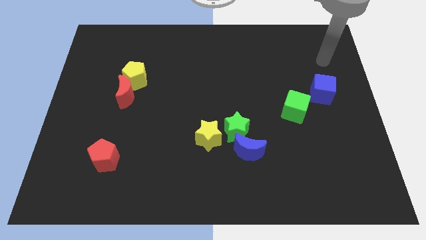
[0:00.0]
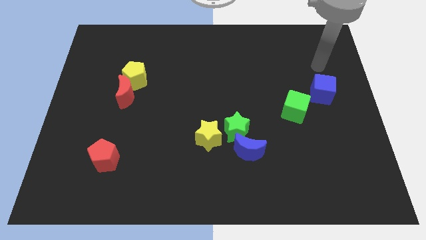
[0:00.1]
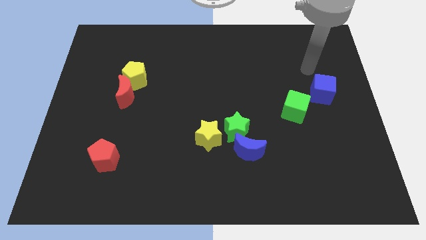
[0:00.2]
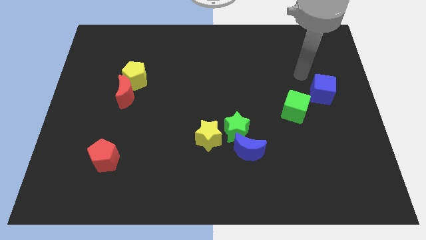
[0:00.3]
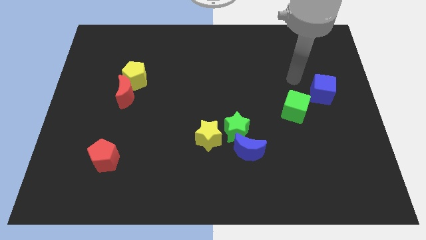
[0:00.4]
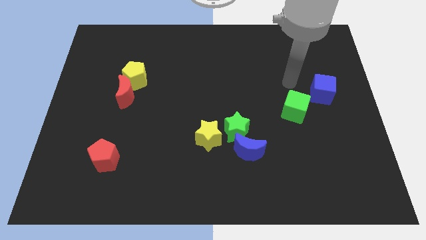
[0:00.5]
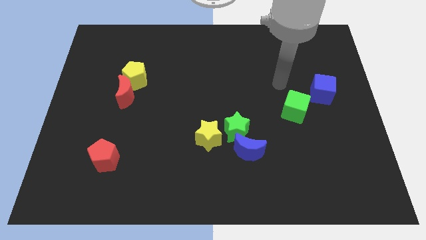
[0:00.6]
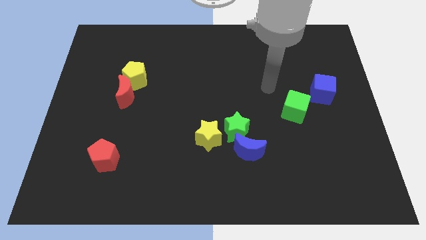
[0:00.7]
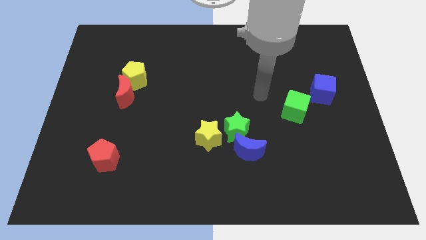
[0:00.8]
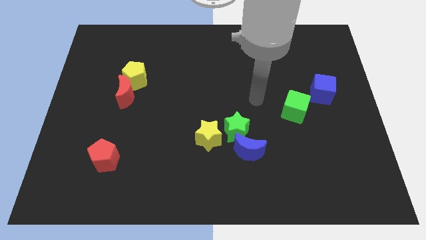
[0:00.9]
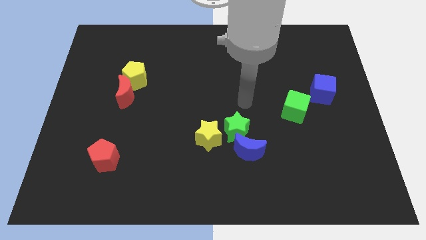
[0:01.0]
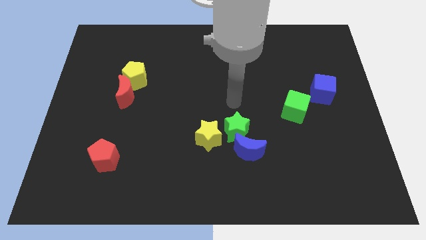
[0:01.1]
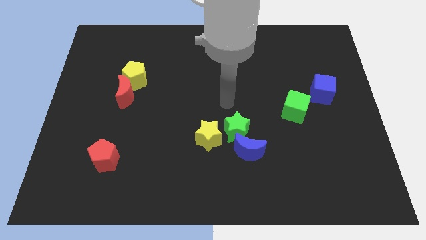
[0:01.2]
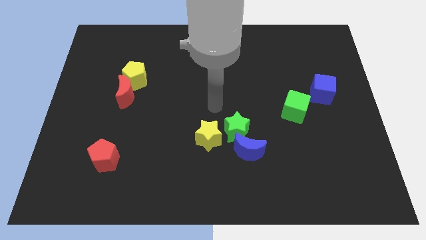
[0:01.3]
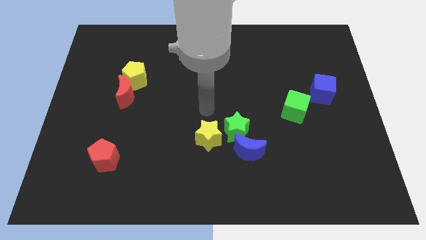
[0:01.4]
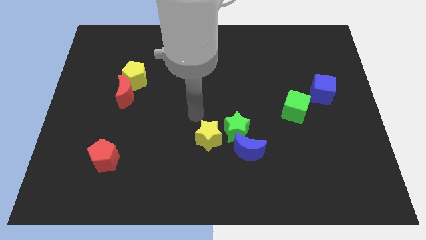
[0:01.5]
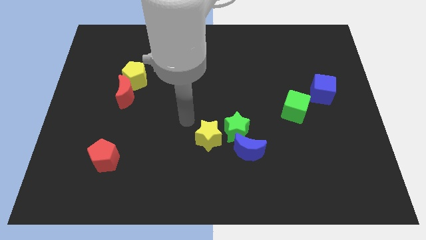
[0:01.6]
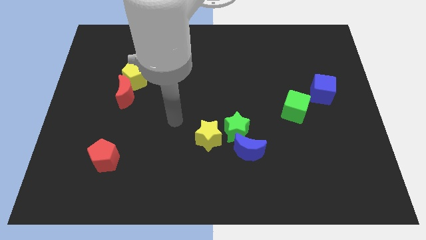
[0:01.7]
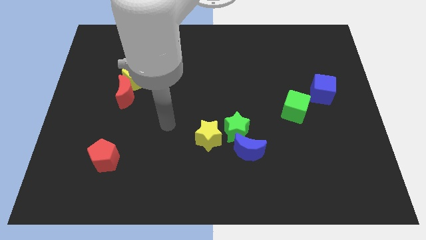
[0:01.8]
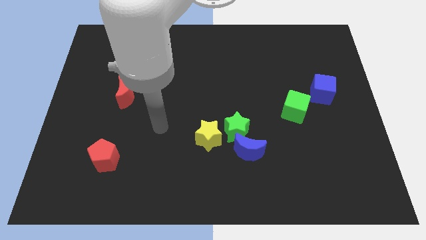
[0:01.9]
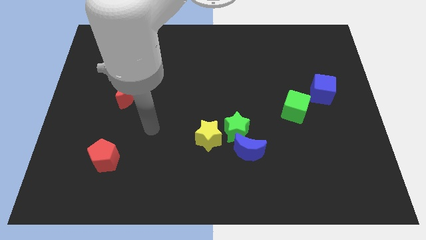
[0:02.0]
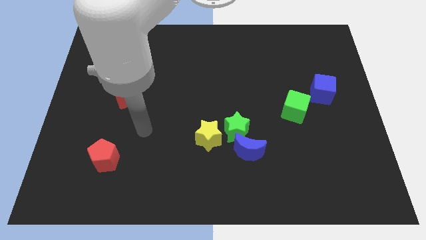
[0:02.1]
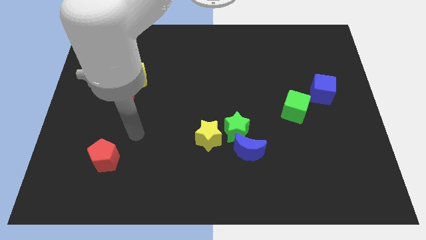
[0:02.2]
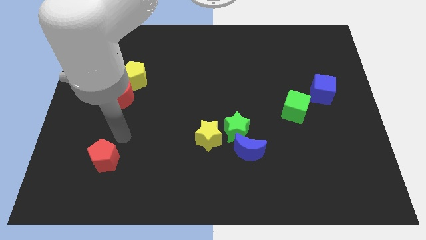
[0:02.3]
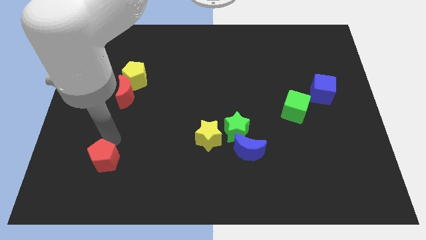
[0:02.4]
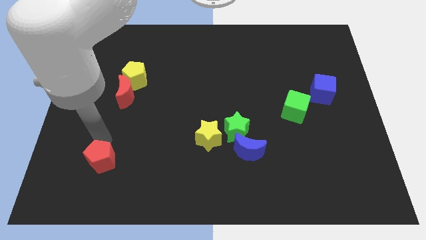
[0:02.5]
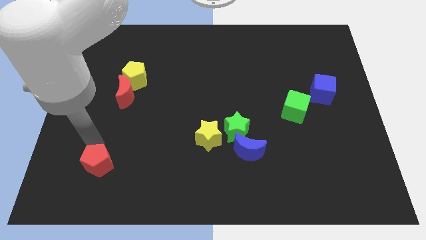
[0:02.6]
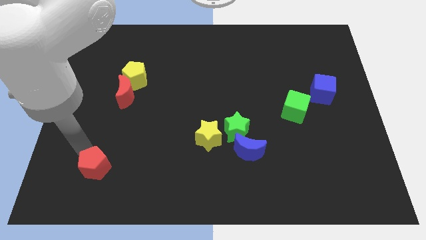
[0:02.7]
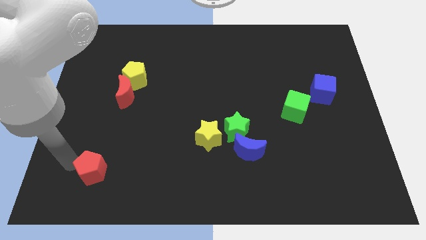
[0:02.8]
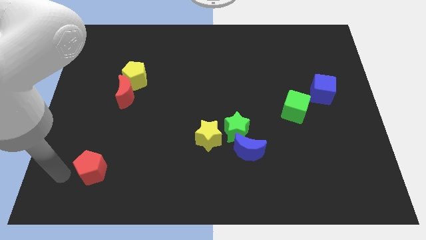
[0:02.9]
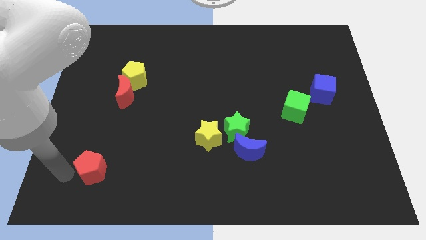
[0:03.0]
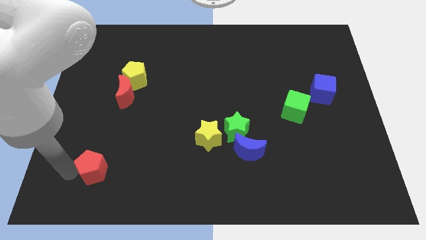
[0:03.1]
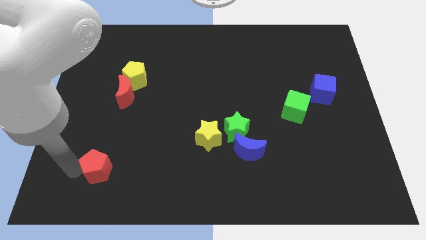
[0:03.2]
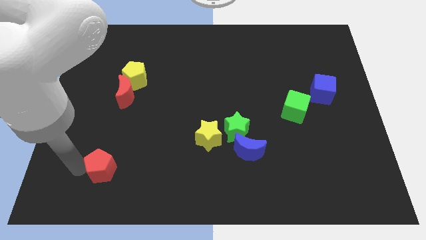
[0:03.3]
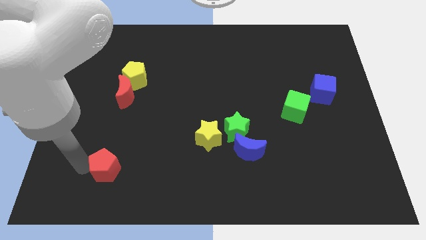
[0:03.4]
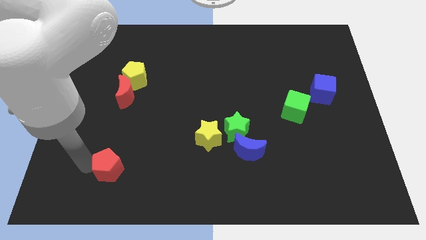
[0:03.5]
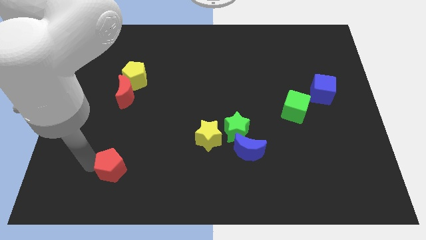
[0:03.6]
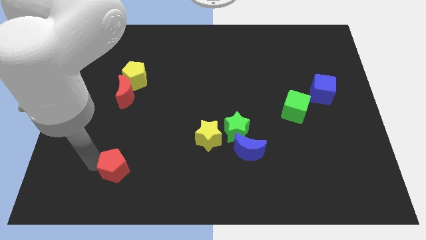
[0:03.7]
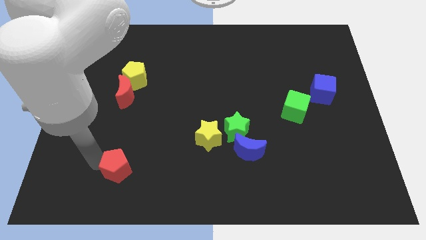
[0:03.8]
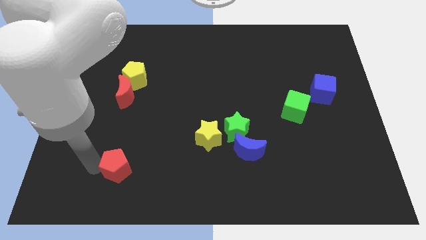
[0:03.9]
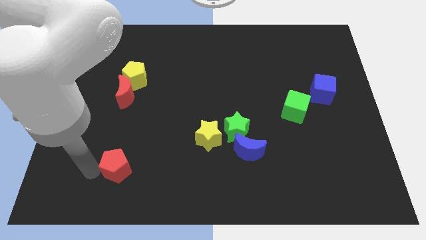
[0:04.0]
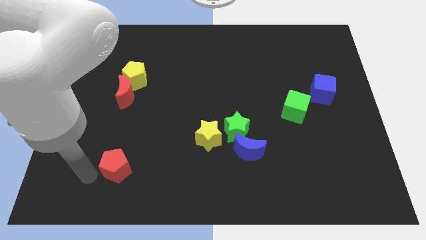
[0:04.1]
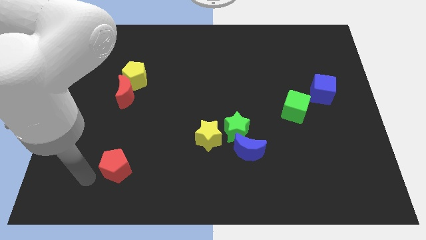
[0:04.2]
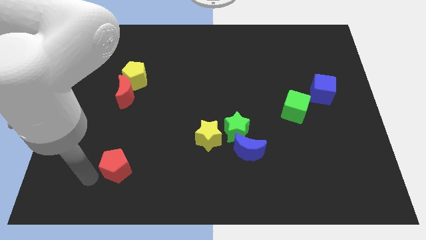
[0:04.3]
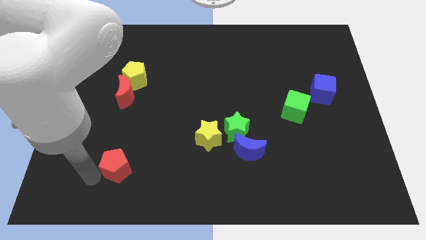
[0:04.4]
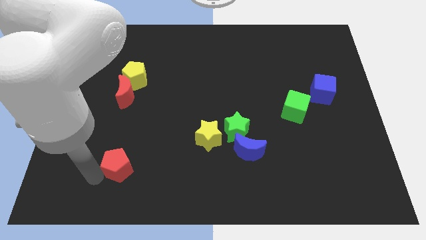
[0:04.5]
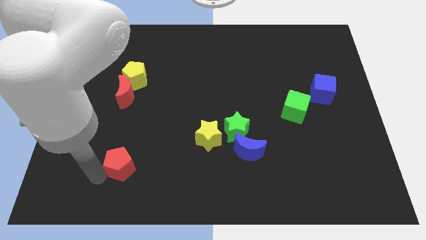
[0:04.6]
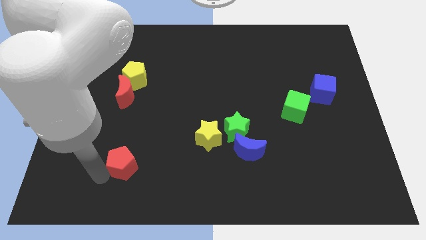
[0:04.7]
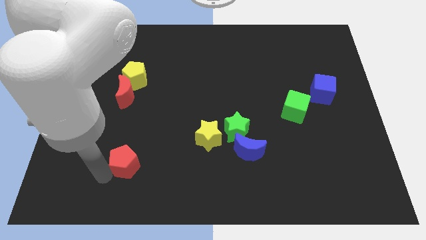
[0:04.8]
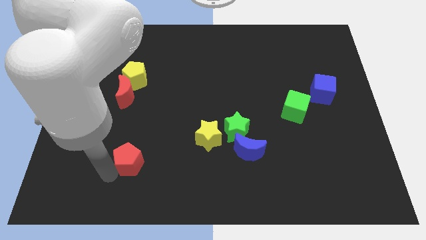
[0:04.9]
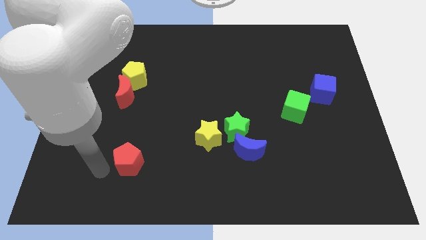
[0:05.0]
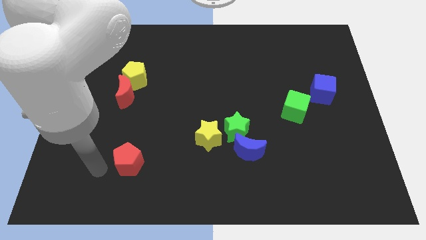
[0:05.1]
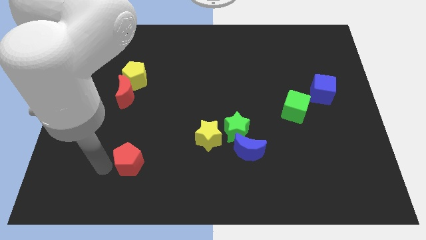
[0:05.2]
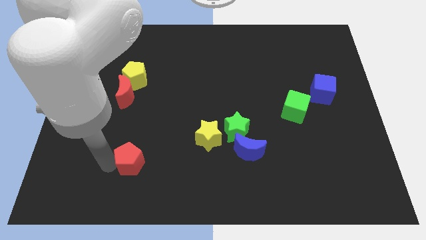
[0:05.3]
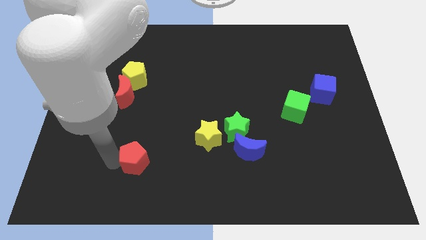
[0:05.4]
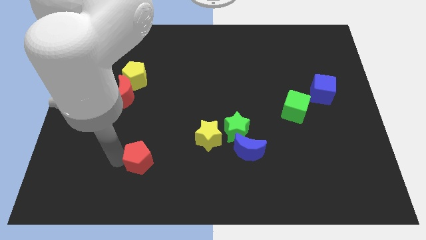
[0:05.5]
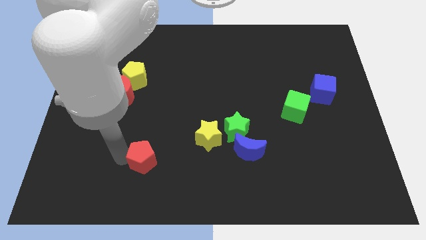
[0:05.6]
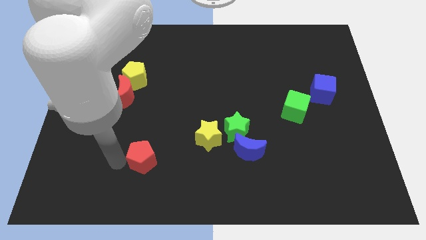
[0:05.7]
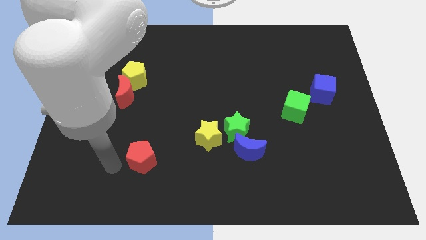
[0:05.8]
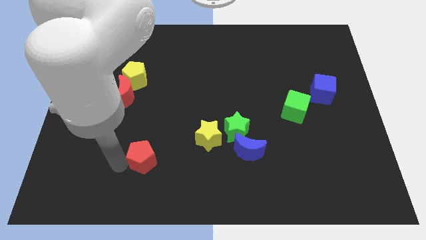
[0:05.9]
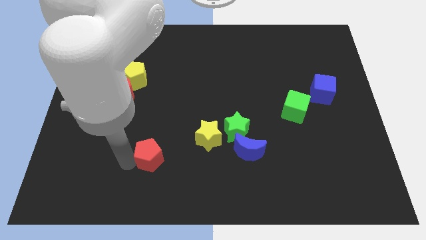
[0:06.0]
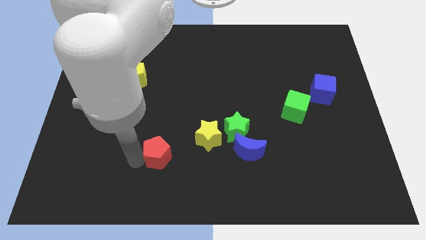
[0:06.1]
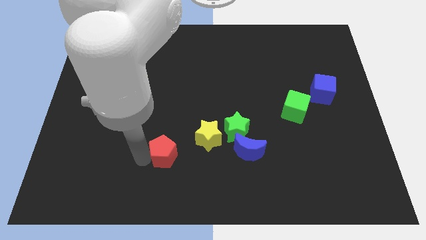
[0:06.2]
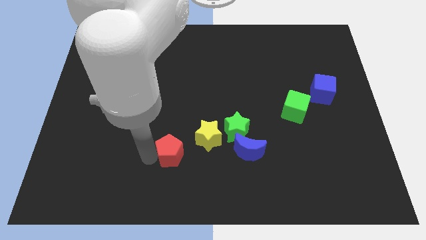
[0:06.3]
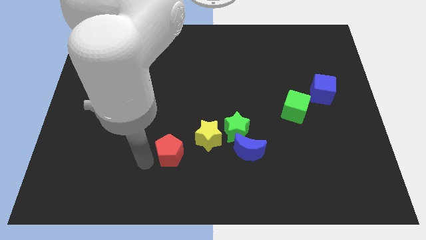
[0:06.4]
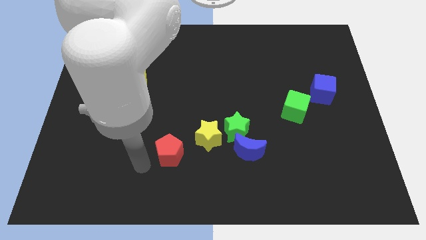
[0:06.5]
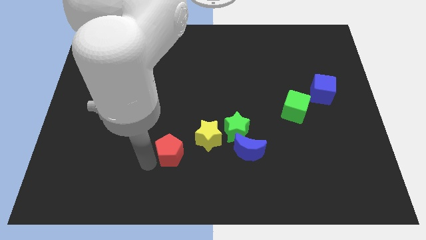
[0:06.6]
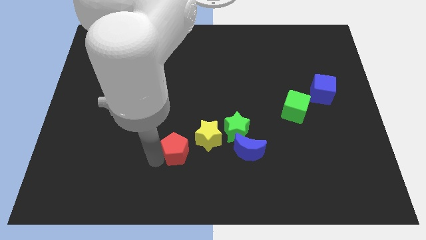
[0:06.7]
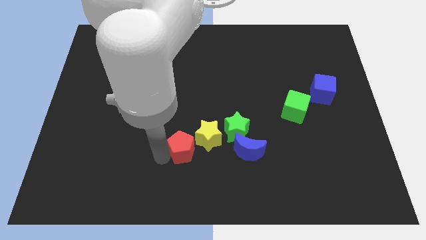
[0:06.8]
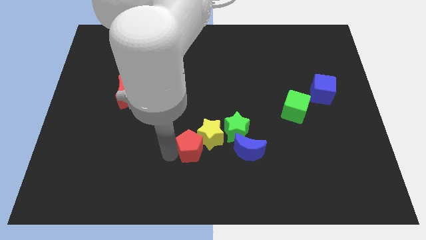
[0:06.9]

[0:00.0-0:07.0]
push the red pentagon close to the yellow star
